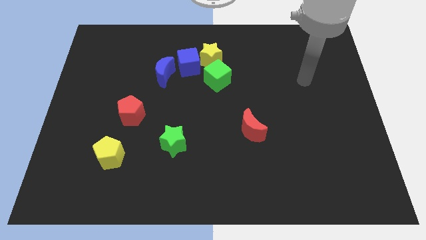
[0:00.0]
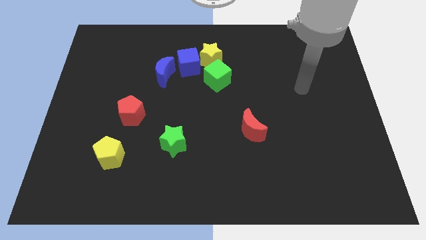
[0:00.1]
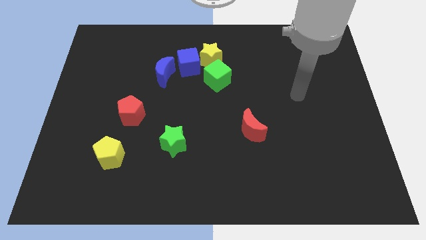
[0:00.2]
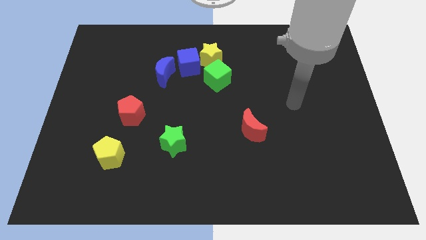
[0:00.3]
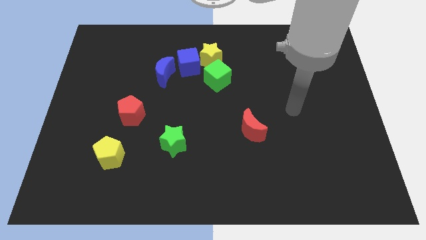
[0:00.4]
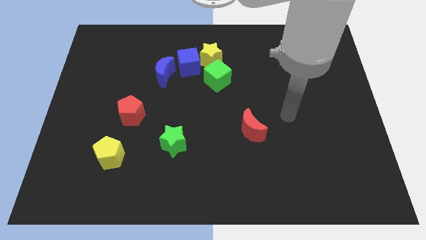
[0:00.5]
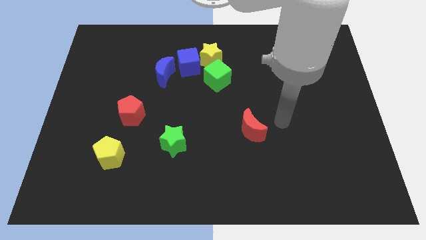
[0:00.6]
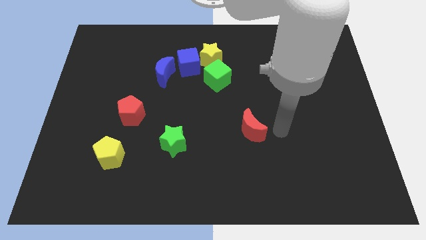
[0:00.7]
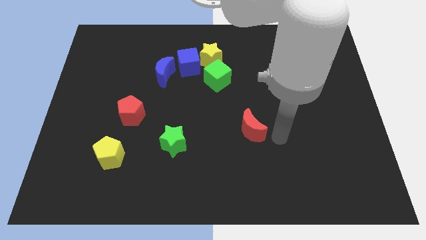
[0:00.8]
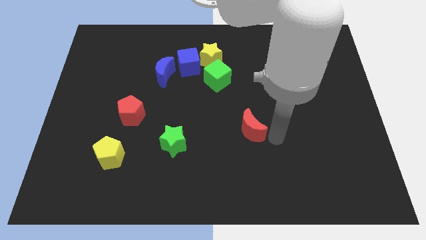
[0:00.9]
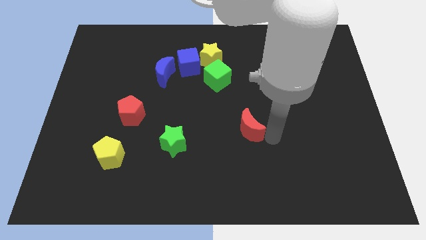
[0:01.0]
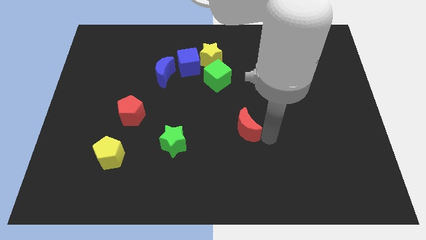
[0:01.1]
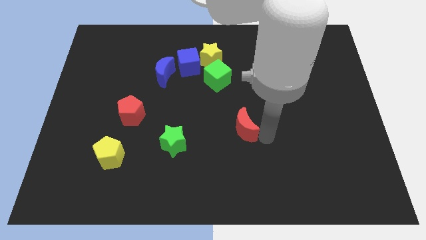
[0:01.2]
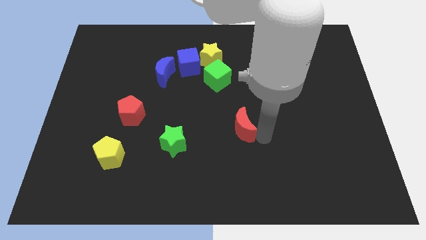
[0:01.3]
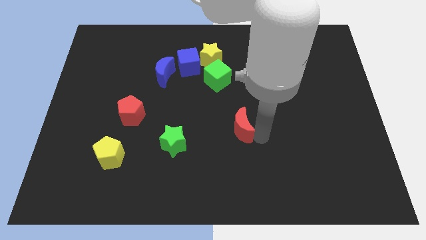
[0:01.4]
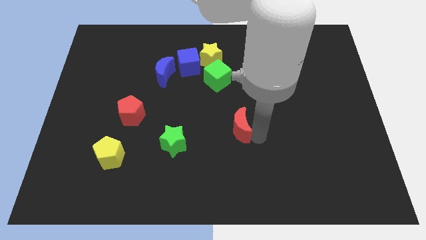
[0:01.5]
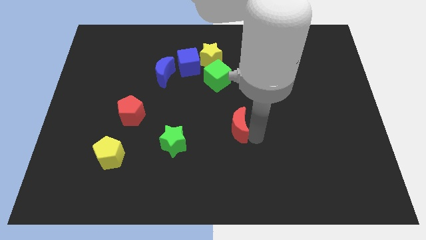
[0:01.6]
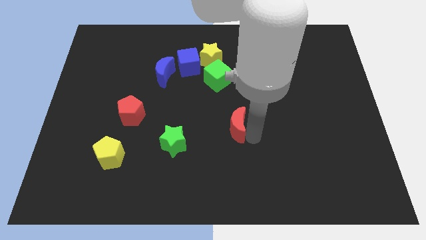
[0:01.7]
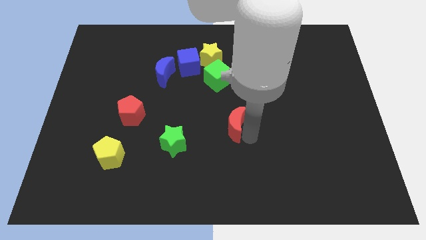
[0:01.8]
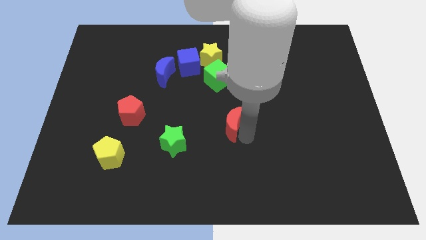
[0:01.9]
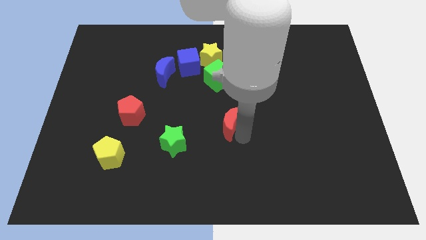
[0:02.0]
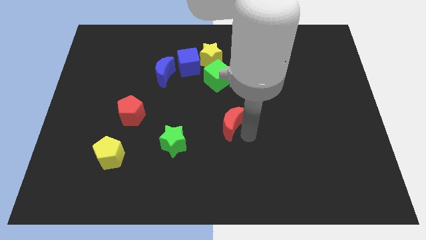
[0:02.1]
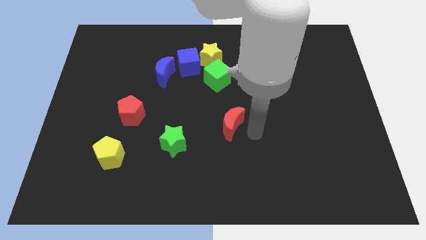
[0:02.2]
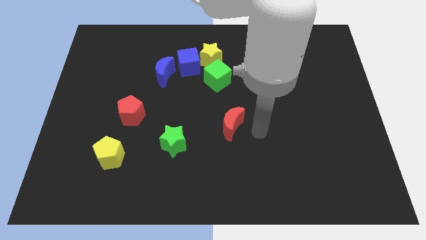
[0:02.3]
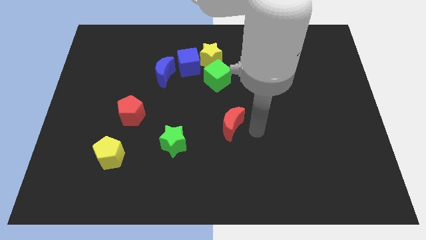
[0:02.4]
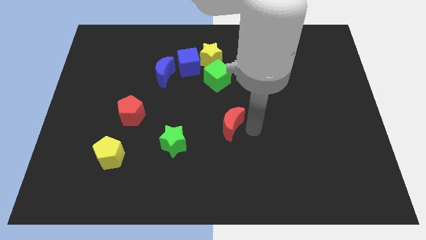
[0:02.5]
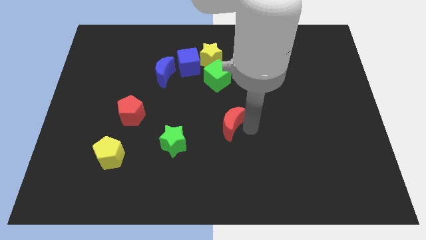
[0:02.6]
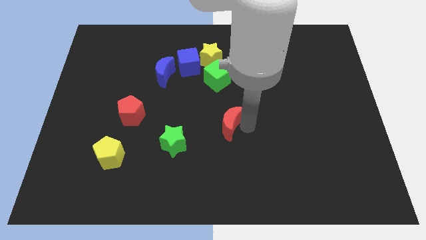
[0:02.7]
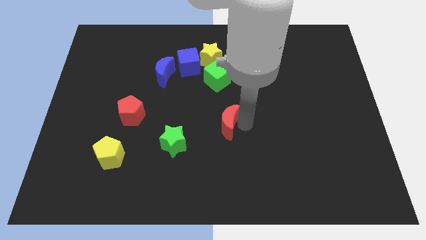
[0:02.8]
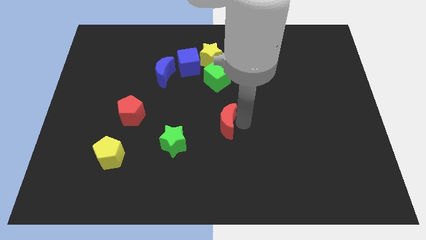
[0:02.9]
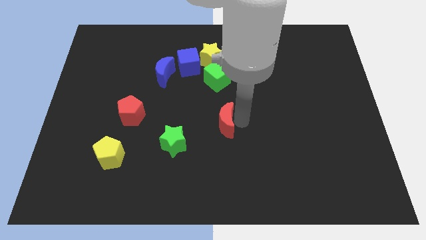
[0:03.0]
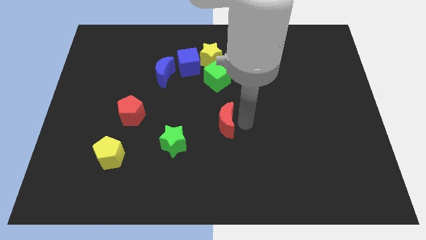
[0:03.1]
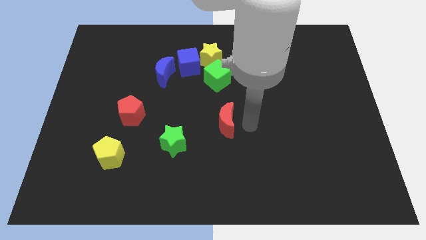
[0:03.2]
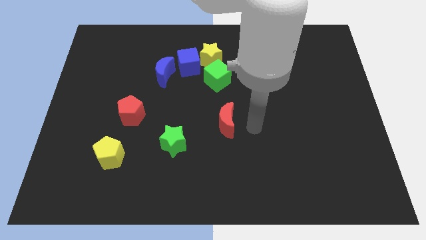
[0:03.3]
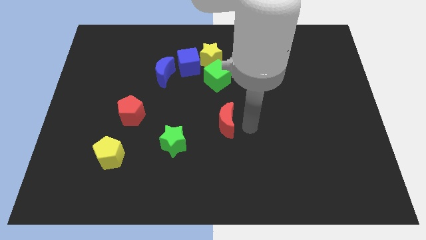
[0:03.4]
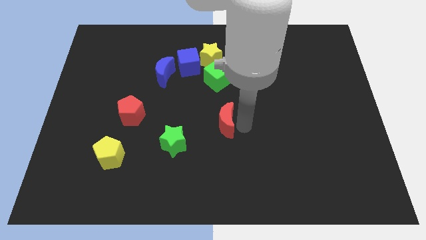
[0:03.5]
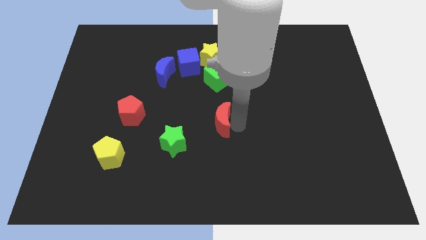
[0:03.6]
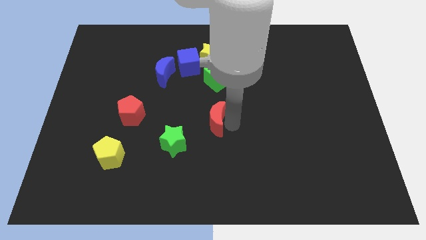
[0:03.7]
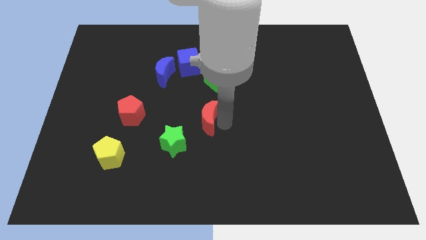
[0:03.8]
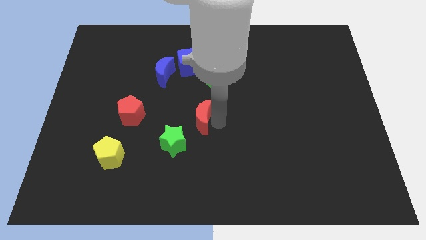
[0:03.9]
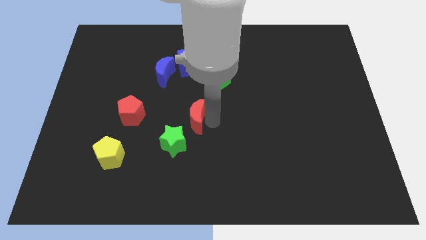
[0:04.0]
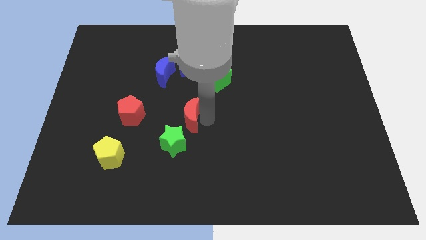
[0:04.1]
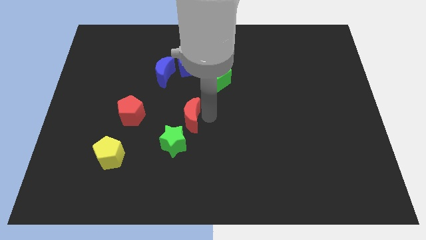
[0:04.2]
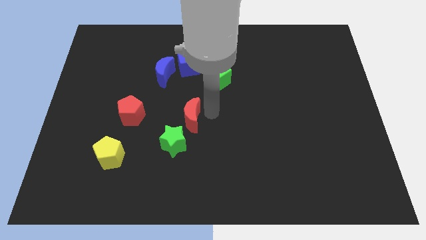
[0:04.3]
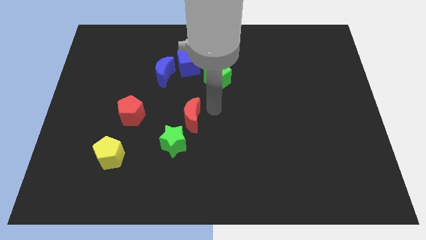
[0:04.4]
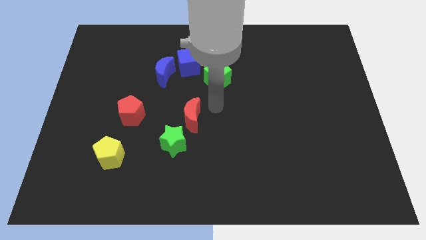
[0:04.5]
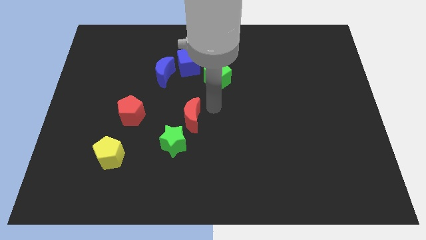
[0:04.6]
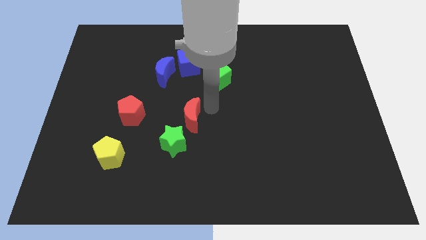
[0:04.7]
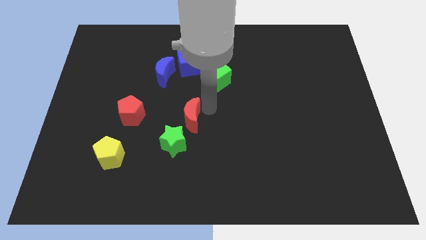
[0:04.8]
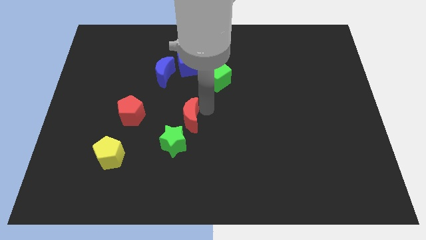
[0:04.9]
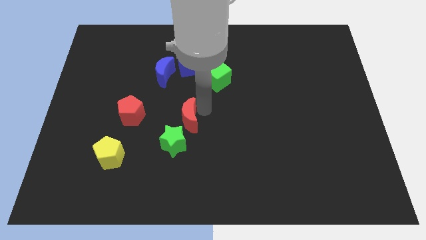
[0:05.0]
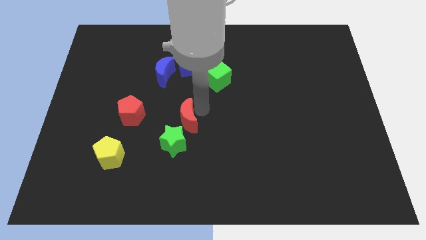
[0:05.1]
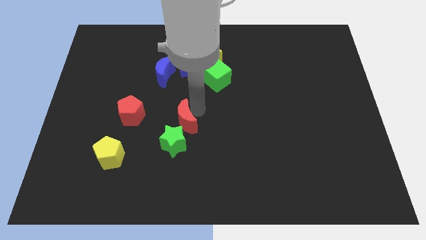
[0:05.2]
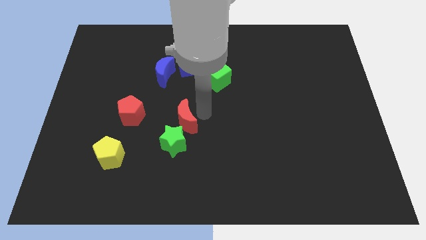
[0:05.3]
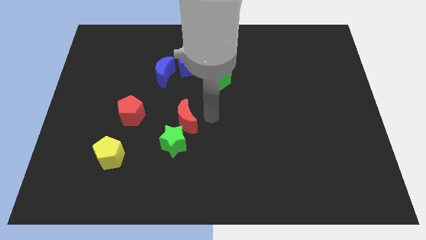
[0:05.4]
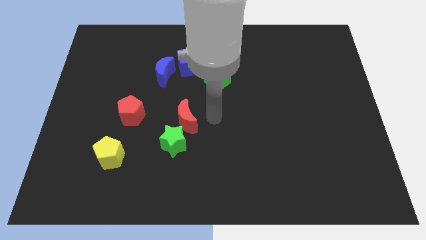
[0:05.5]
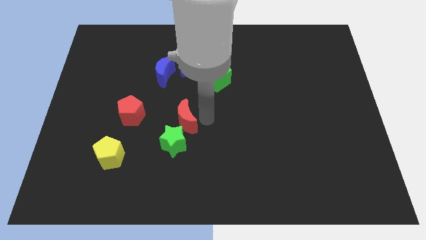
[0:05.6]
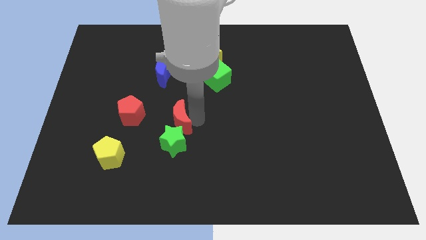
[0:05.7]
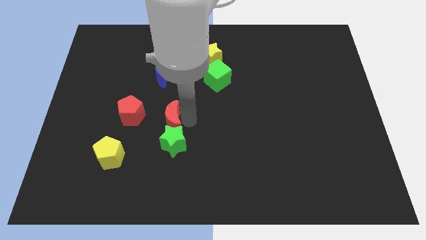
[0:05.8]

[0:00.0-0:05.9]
push the red moon diagonally up and to the left of the green star

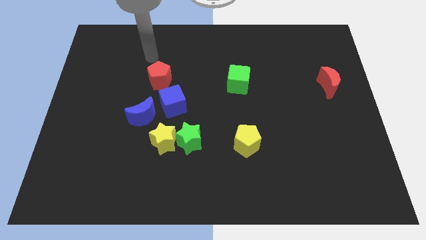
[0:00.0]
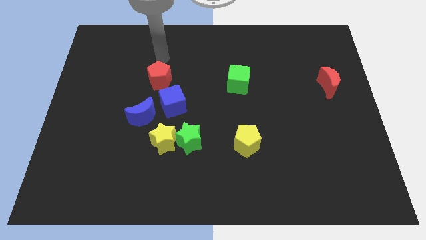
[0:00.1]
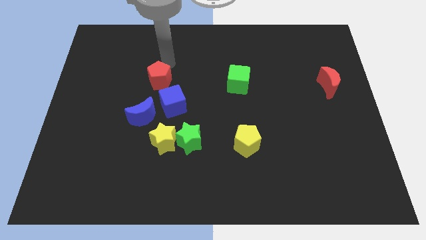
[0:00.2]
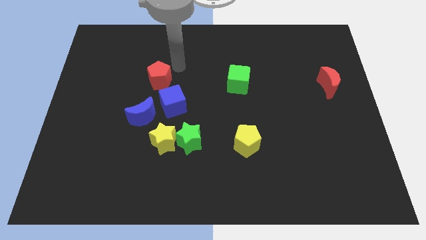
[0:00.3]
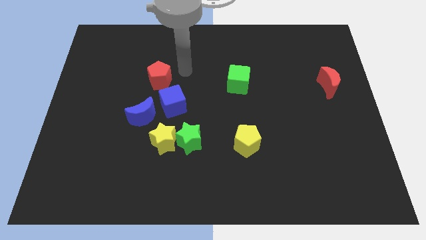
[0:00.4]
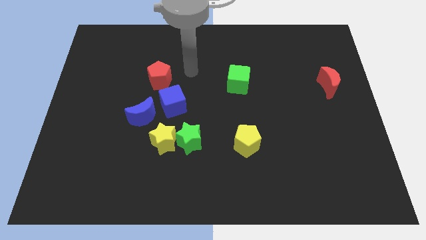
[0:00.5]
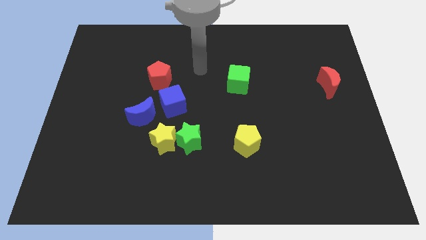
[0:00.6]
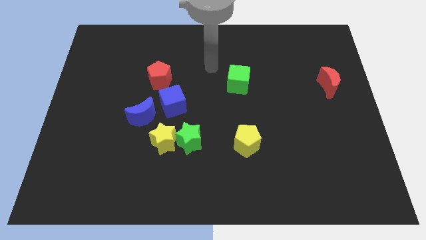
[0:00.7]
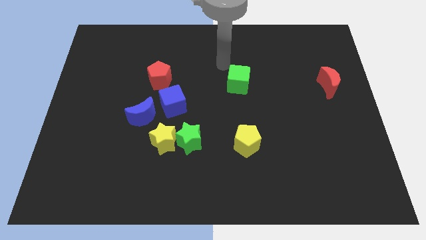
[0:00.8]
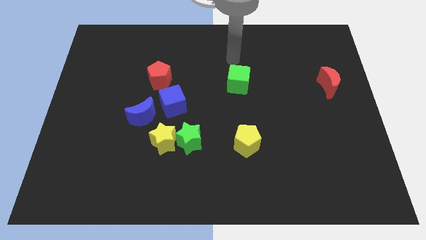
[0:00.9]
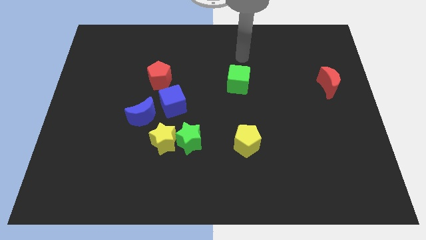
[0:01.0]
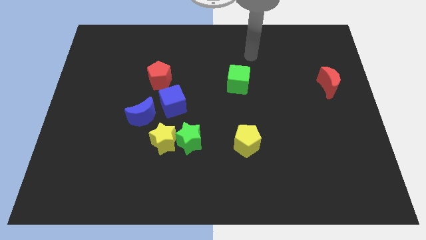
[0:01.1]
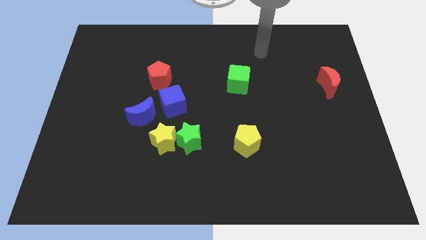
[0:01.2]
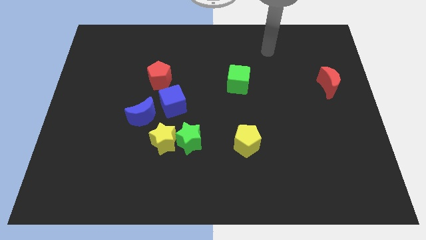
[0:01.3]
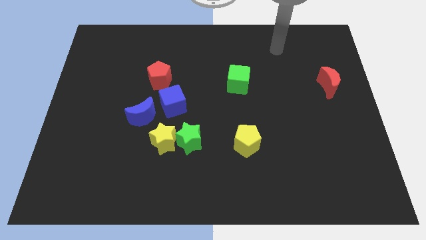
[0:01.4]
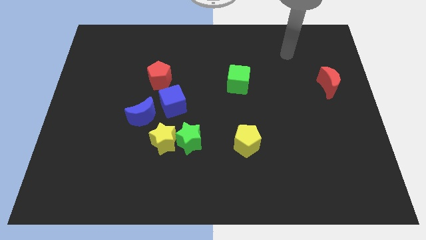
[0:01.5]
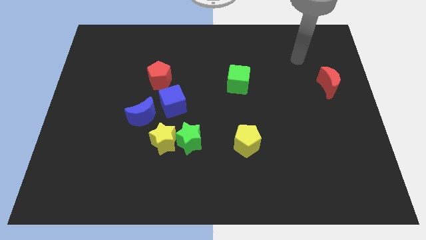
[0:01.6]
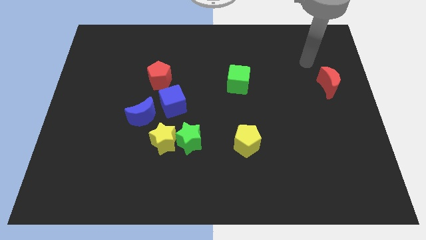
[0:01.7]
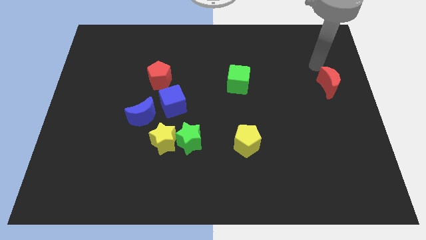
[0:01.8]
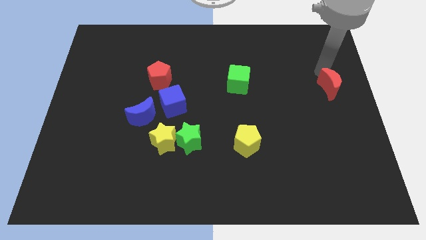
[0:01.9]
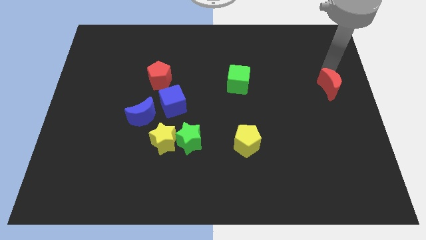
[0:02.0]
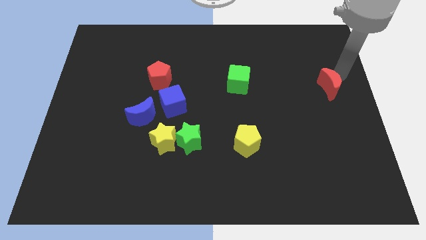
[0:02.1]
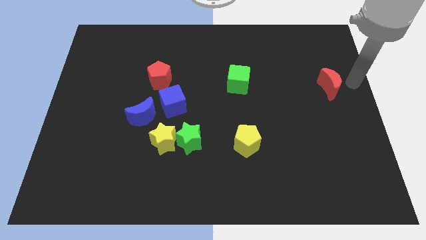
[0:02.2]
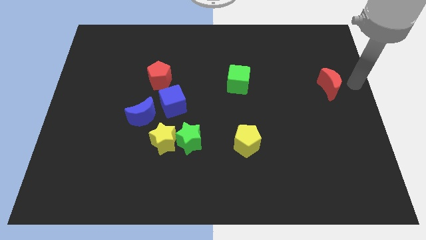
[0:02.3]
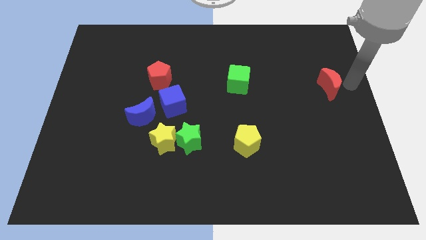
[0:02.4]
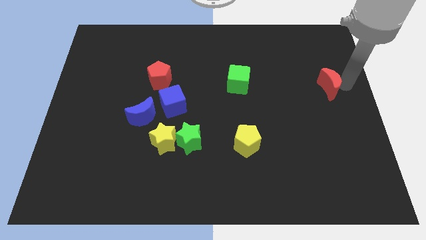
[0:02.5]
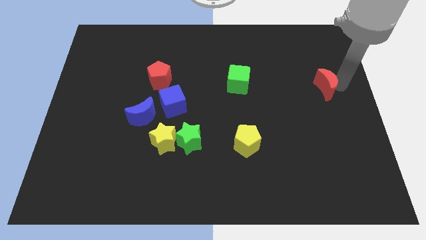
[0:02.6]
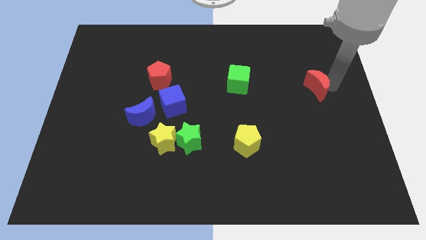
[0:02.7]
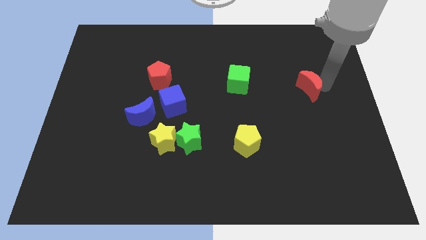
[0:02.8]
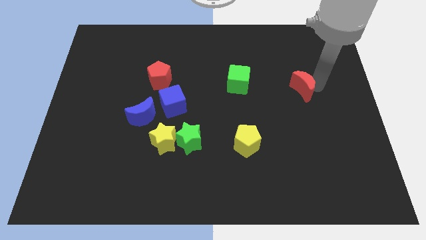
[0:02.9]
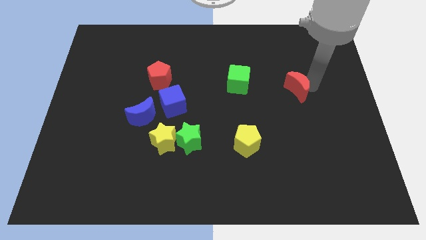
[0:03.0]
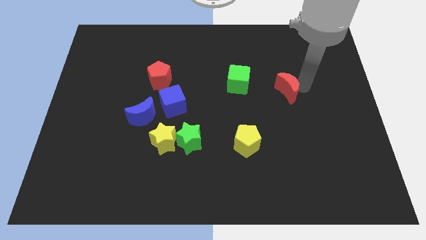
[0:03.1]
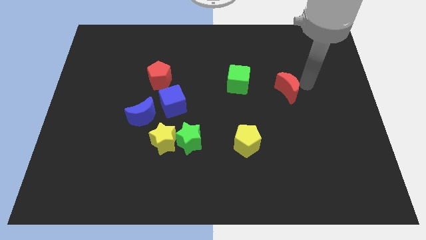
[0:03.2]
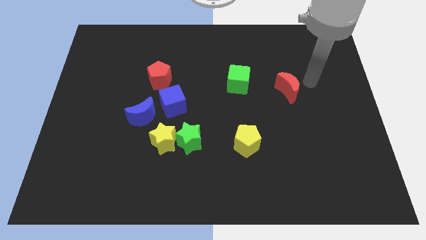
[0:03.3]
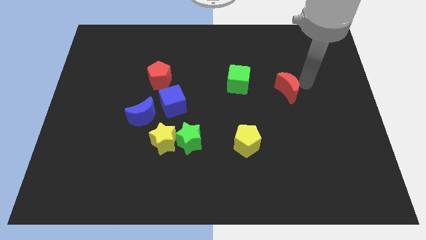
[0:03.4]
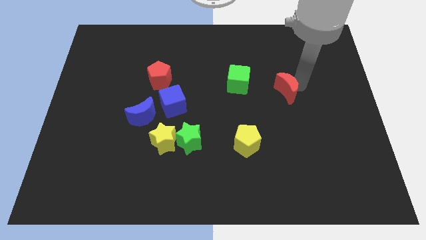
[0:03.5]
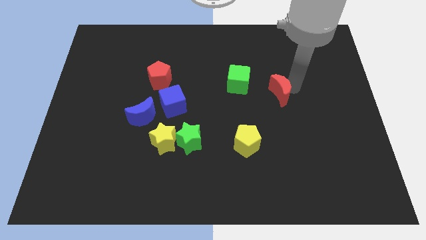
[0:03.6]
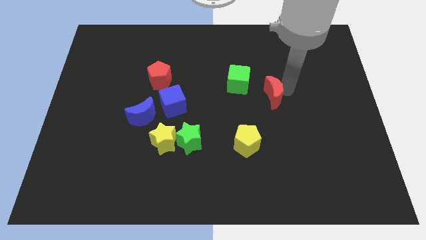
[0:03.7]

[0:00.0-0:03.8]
move the red moon to the bottom right side of the green cube
